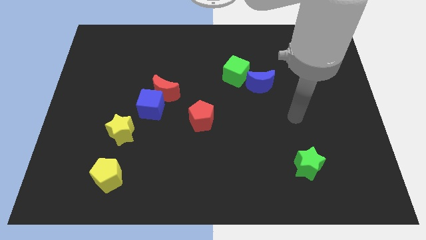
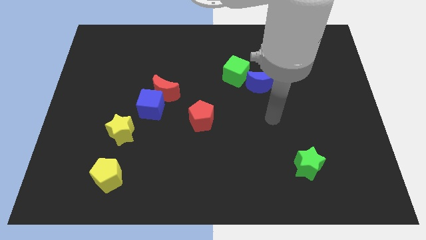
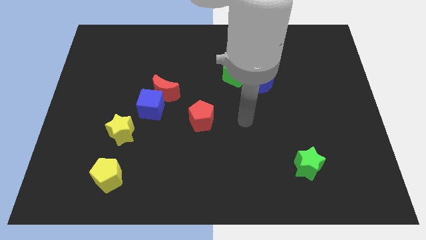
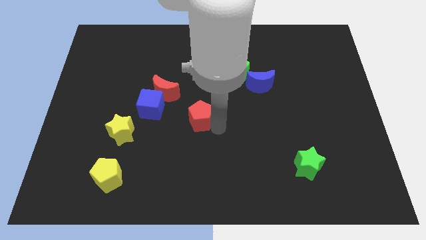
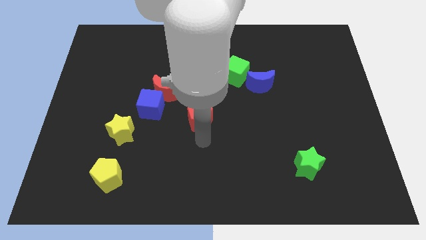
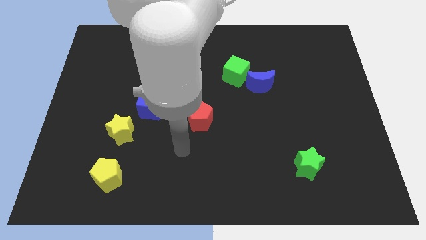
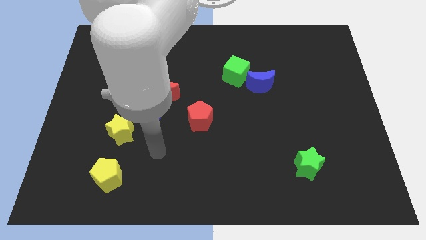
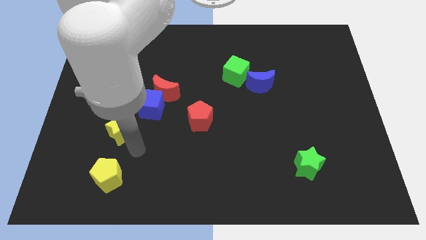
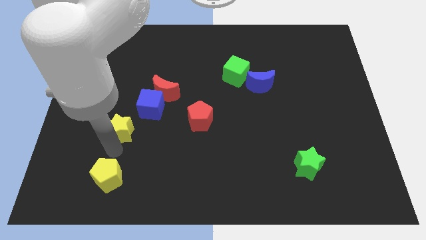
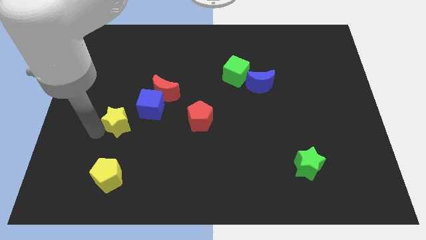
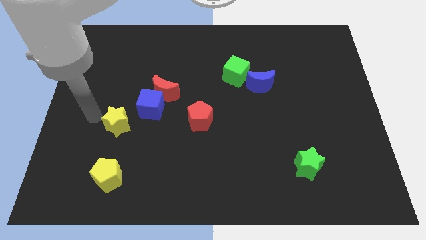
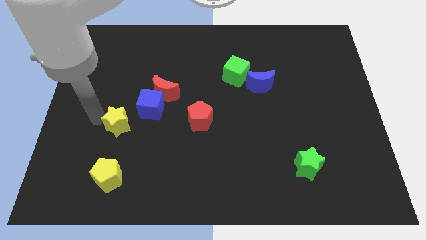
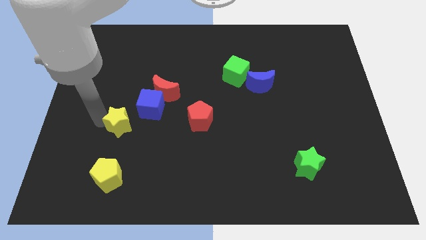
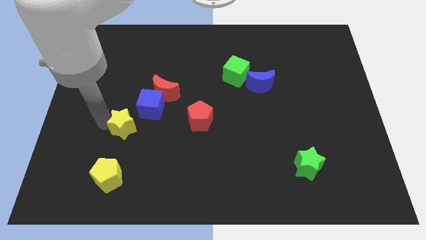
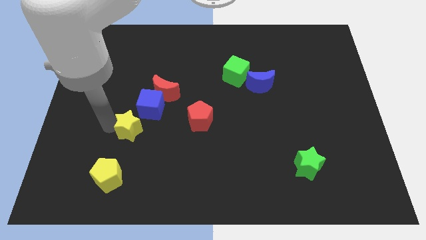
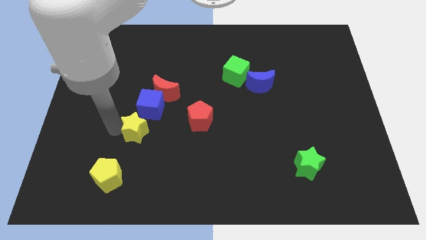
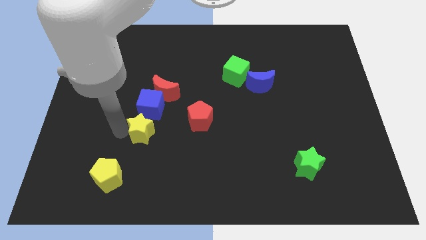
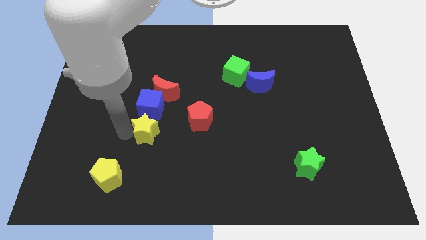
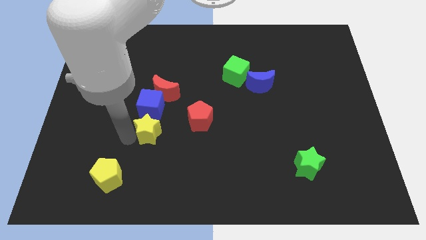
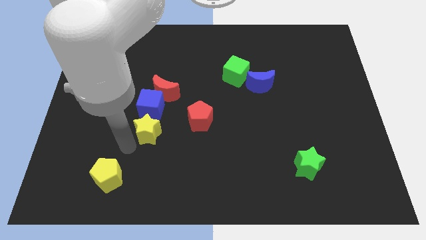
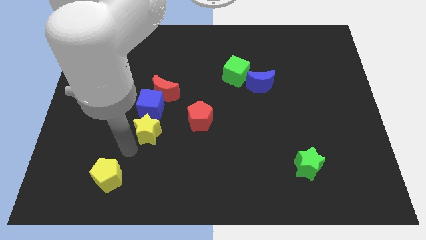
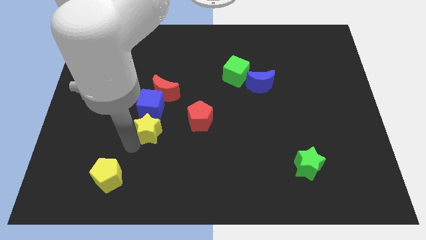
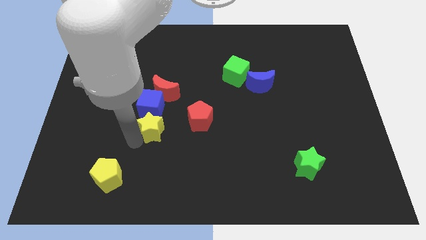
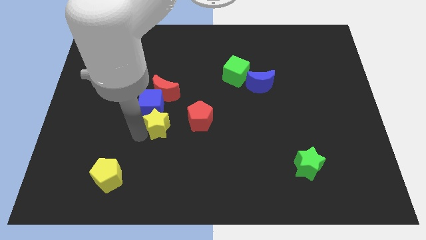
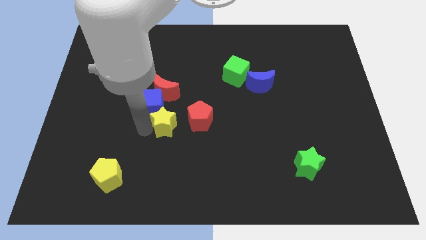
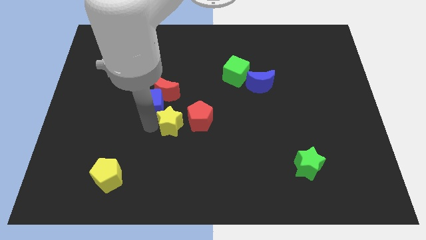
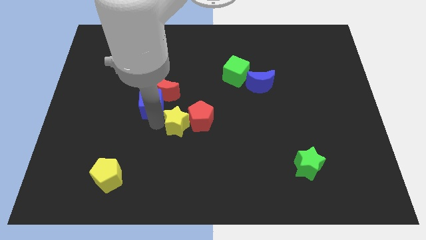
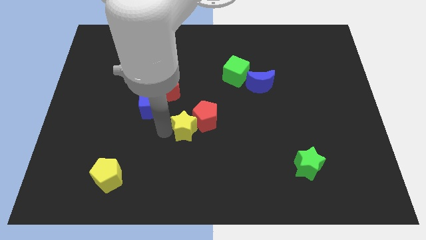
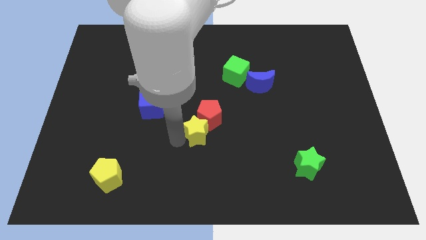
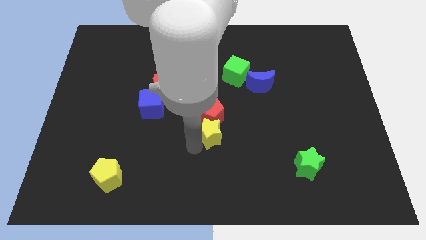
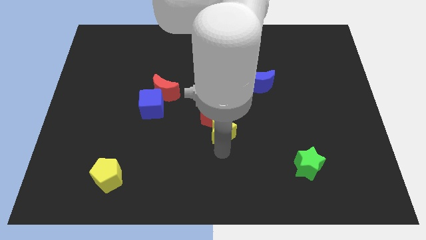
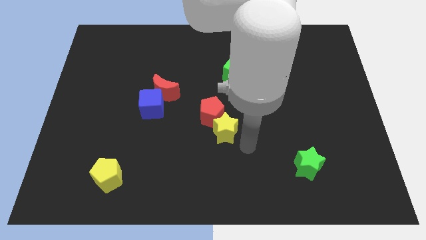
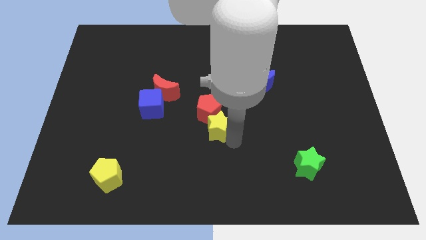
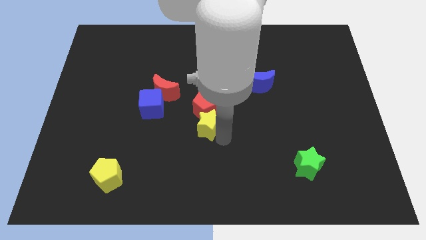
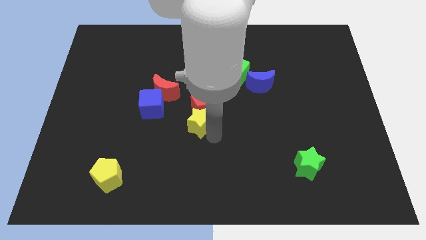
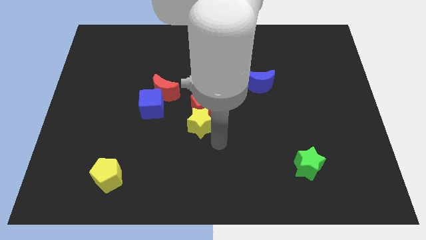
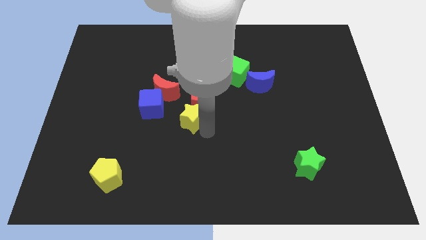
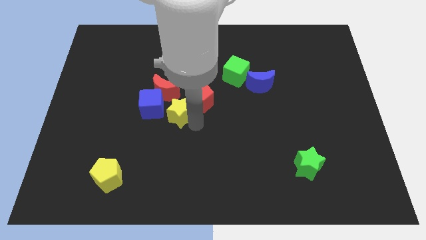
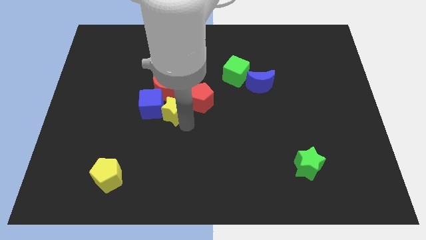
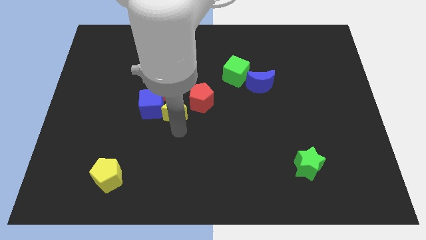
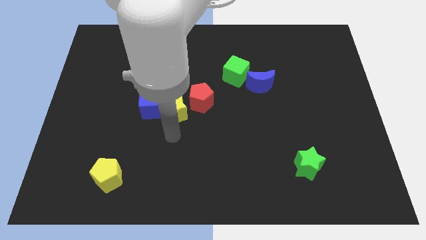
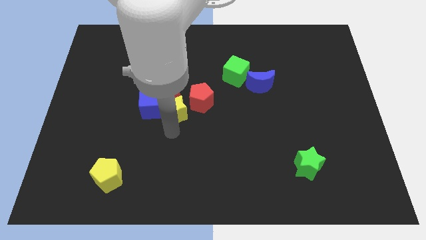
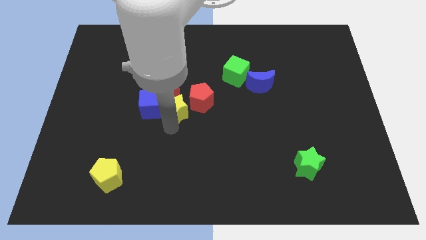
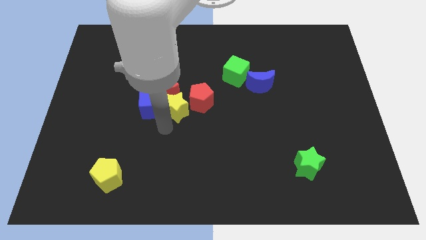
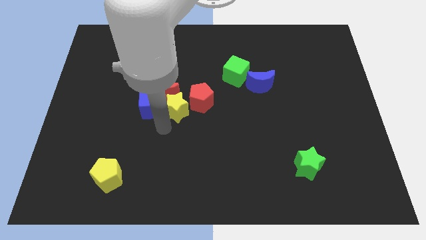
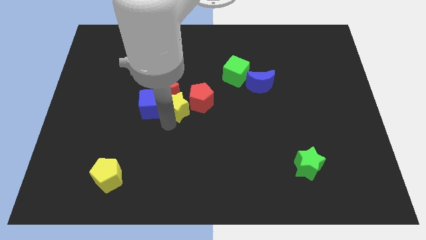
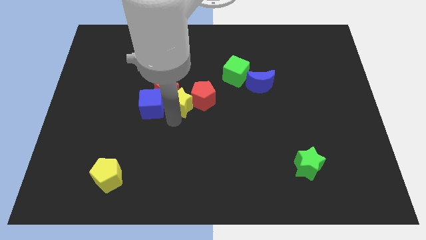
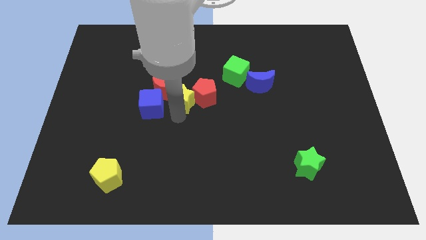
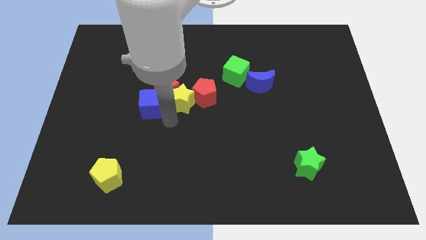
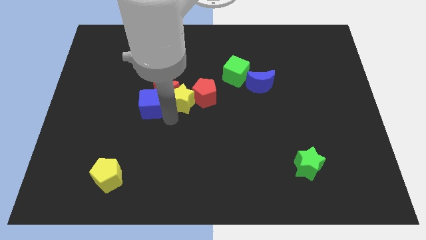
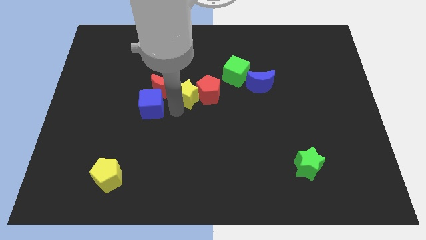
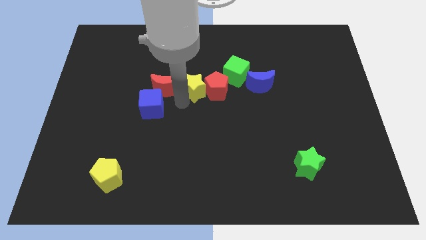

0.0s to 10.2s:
push the yellow star upwards and right diagonally

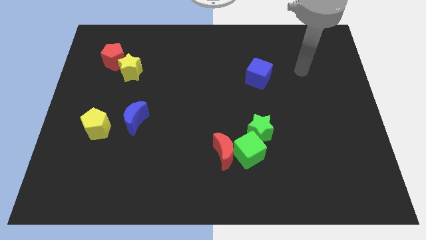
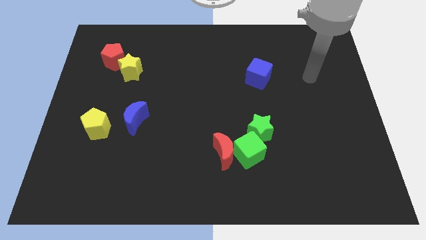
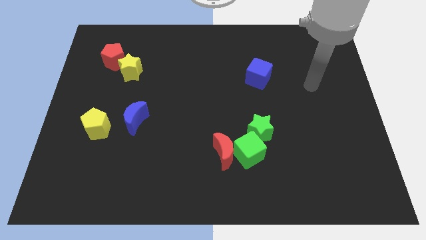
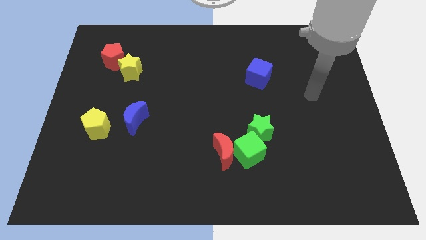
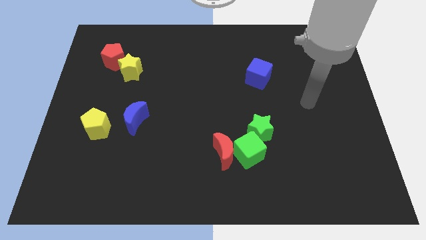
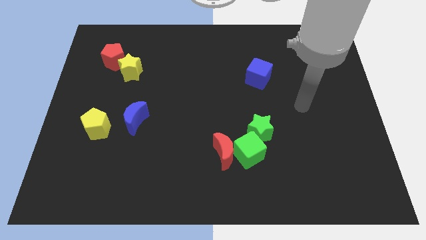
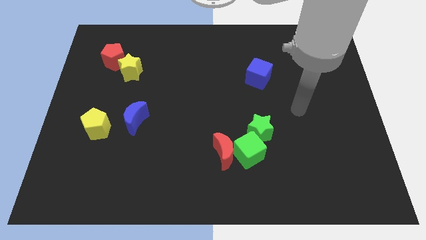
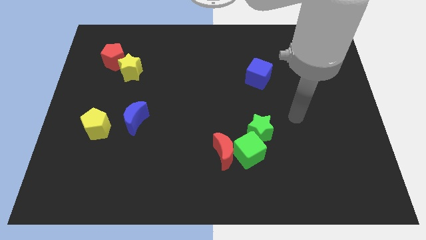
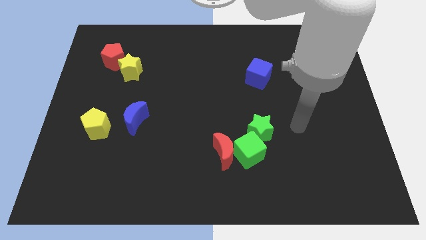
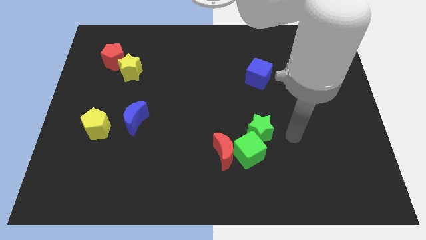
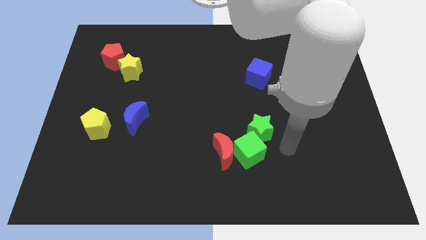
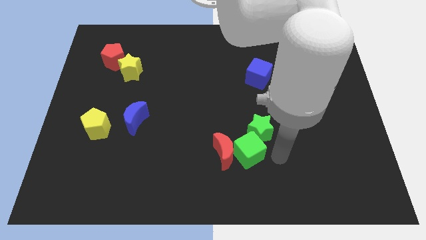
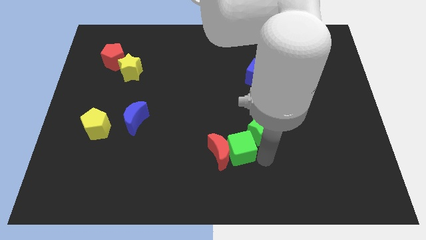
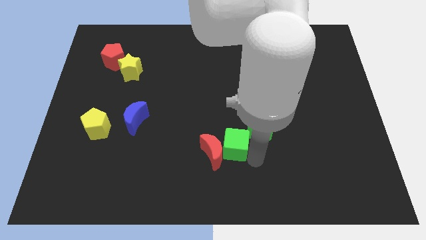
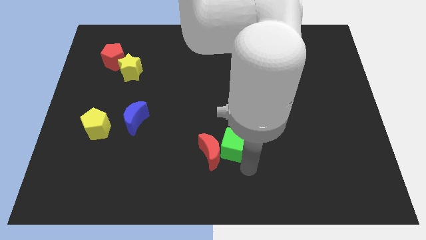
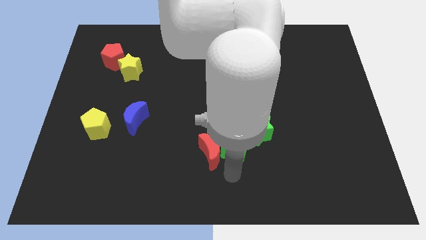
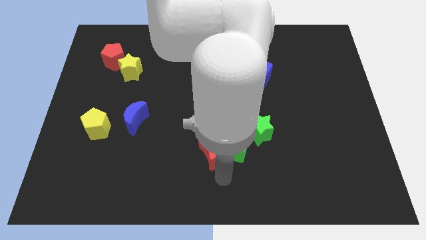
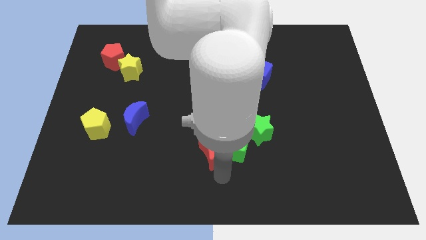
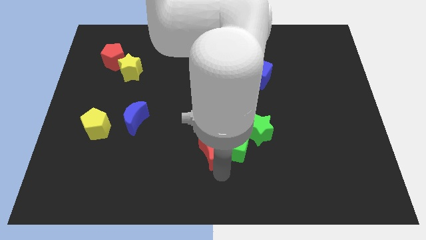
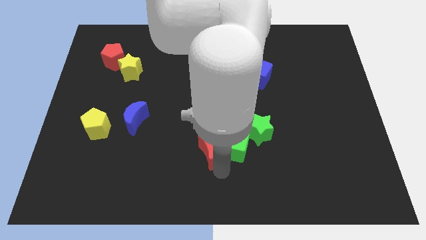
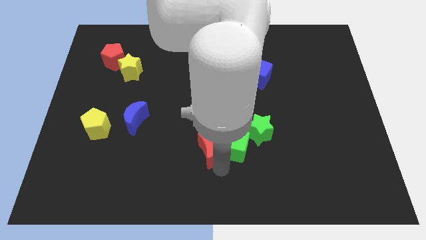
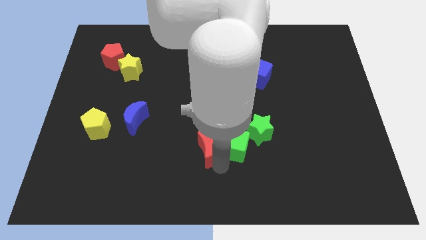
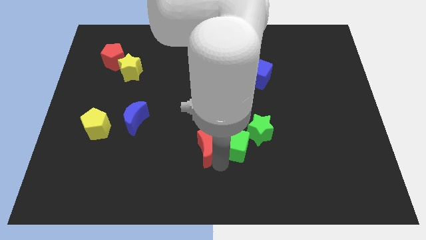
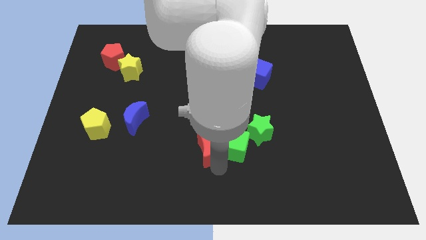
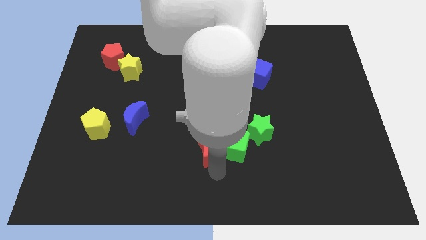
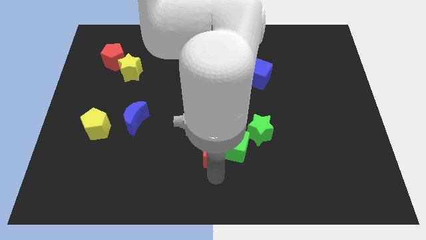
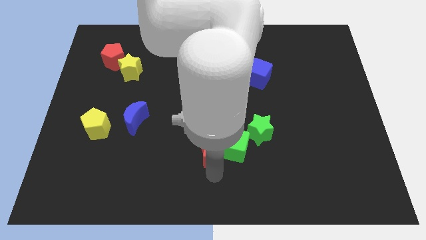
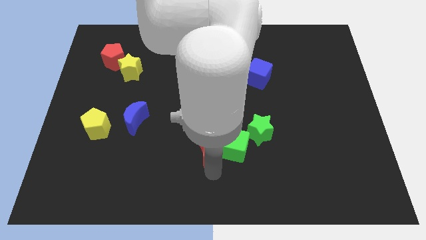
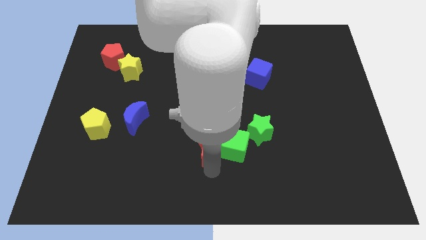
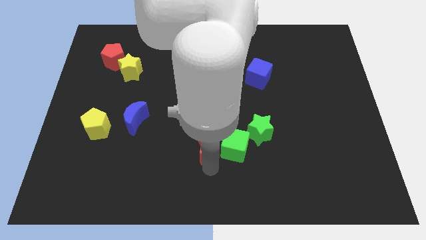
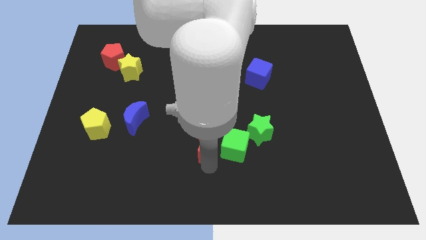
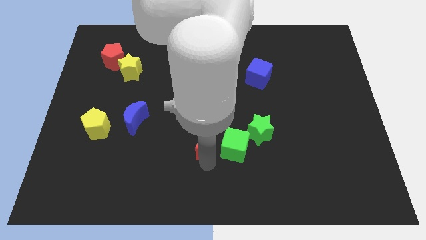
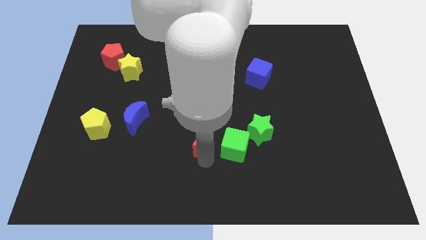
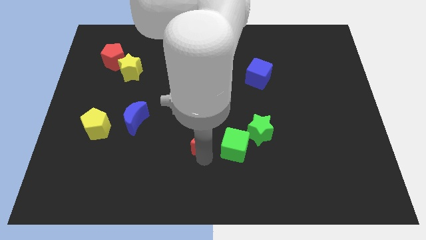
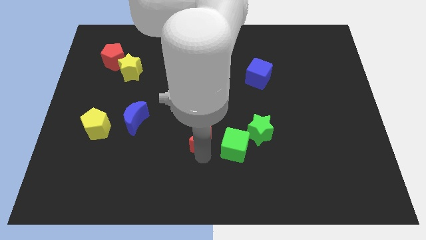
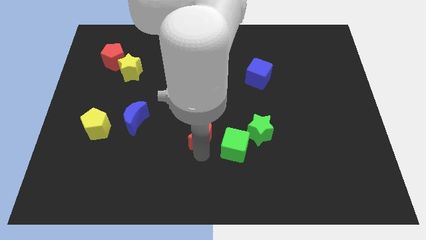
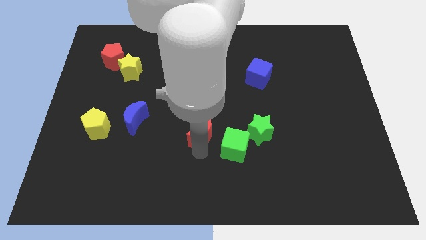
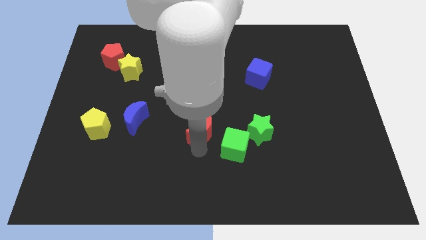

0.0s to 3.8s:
slightly push the red moon up and to the left diagonally
